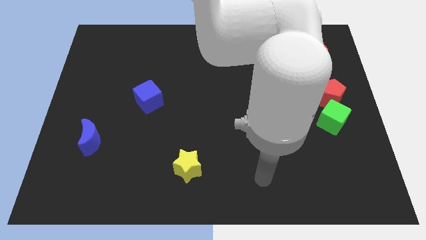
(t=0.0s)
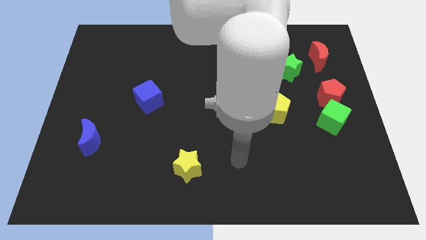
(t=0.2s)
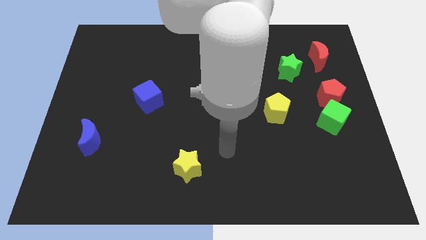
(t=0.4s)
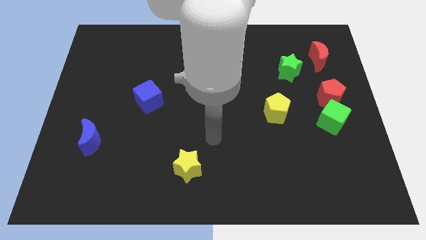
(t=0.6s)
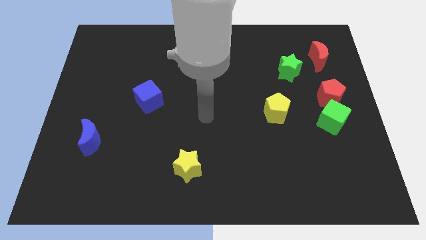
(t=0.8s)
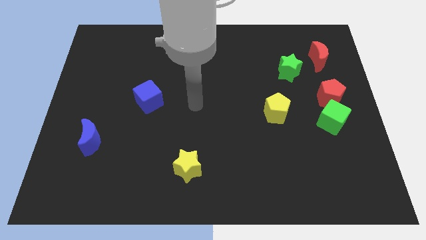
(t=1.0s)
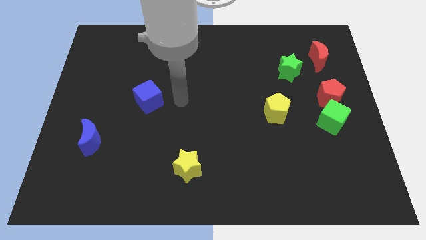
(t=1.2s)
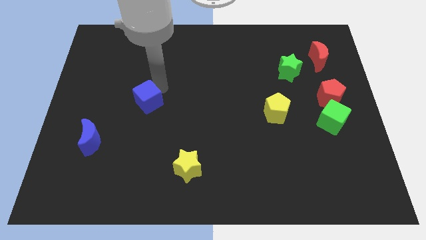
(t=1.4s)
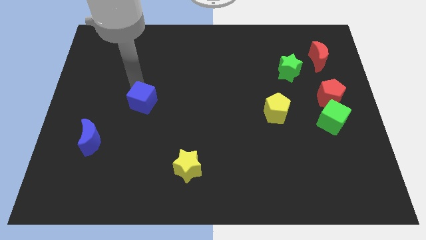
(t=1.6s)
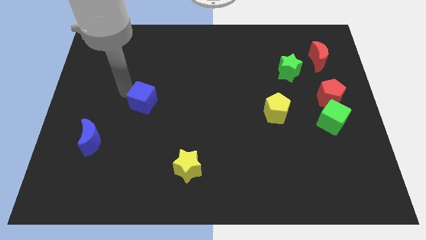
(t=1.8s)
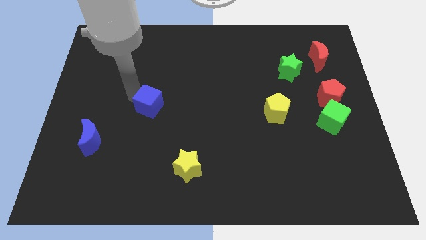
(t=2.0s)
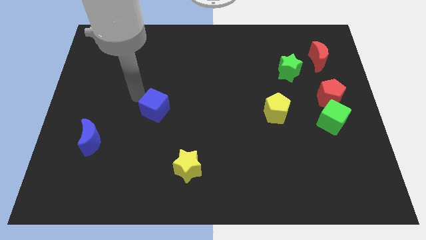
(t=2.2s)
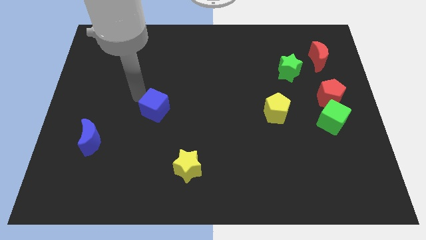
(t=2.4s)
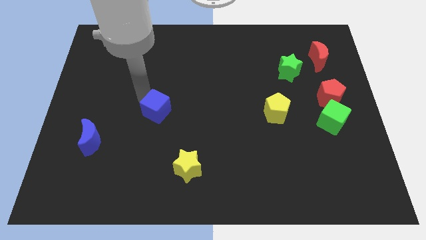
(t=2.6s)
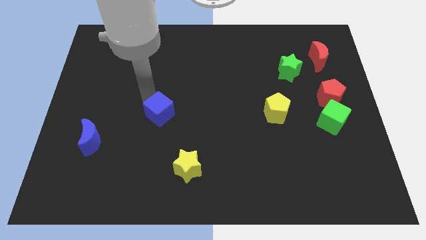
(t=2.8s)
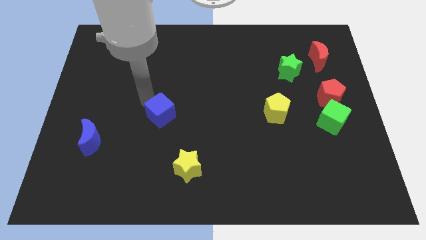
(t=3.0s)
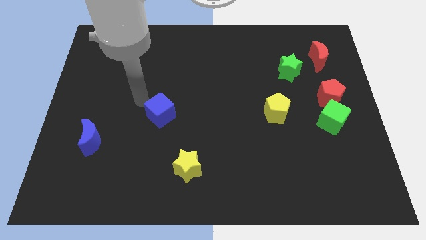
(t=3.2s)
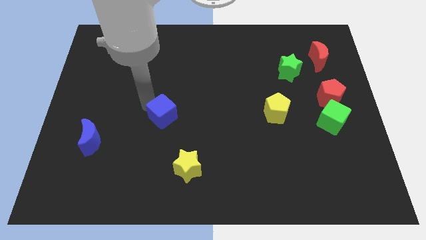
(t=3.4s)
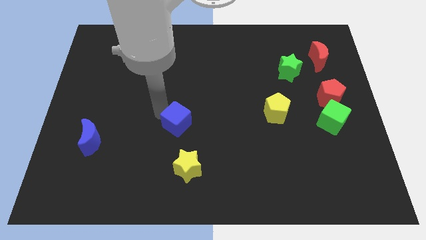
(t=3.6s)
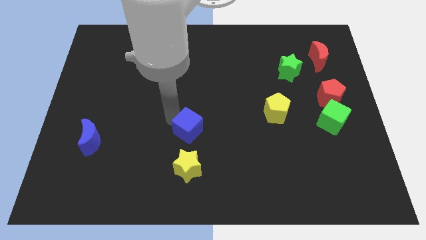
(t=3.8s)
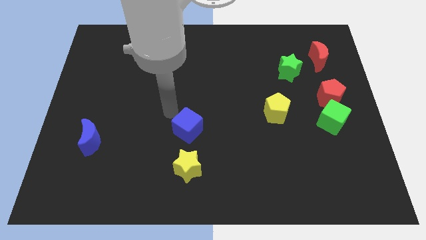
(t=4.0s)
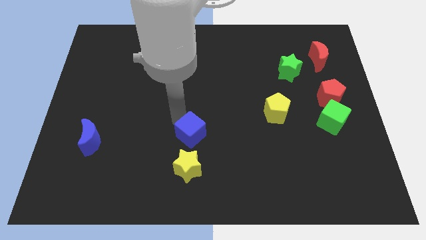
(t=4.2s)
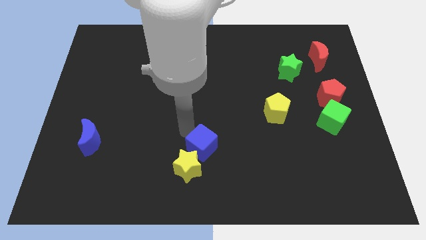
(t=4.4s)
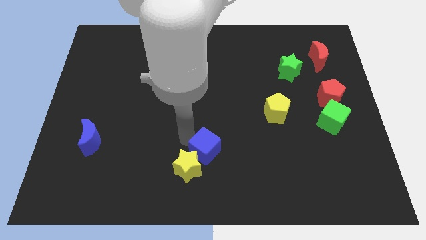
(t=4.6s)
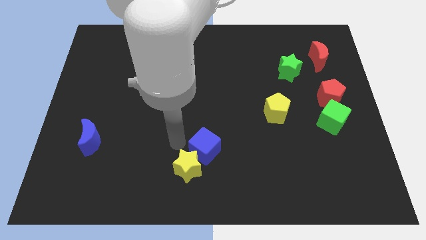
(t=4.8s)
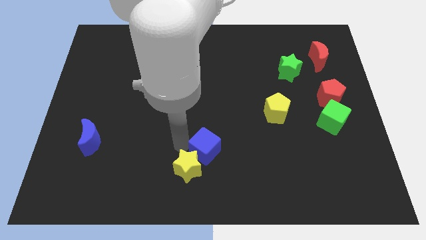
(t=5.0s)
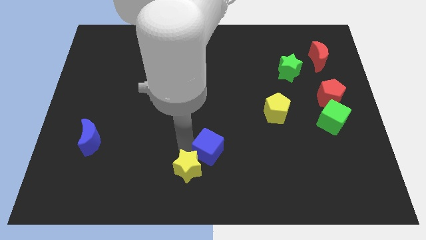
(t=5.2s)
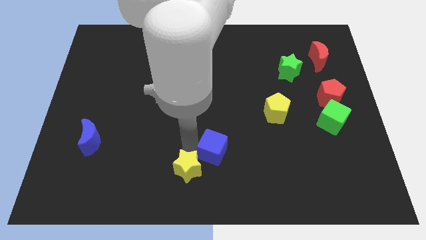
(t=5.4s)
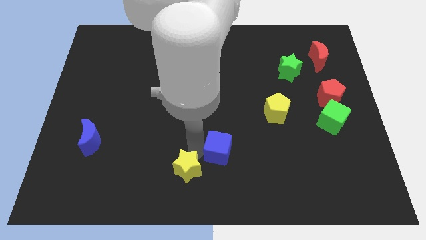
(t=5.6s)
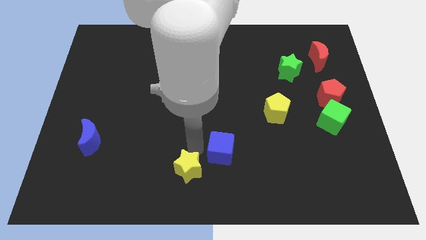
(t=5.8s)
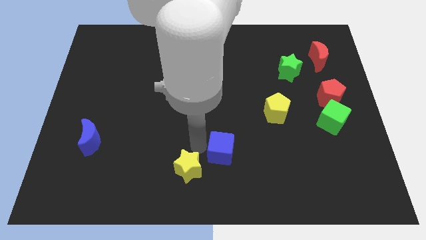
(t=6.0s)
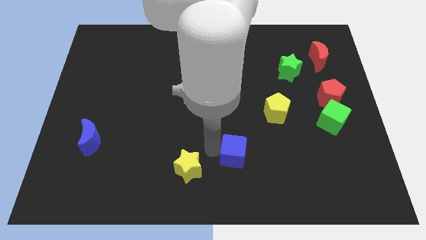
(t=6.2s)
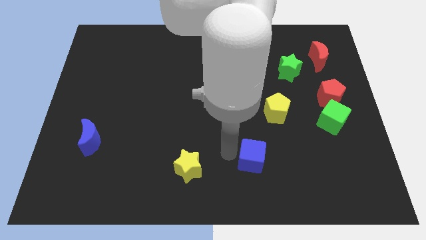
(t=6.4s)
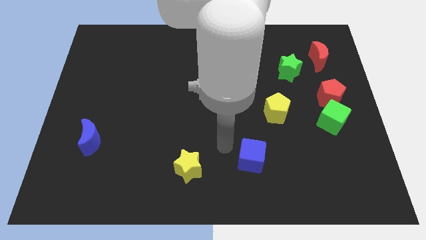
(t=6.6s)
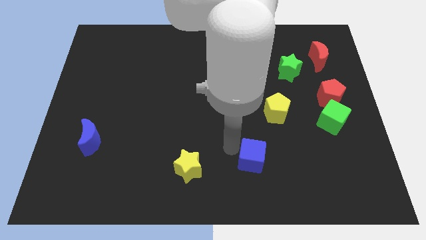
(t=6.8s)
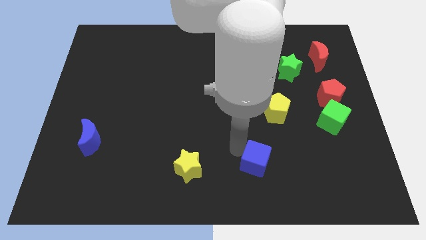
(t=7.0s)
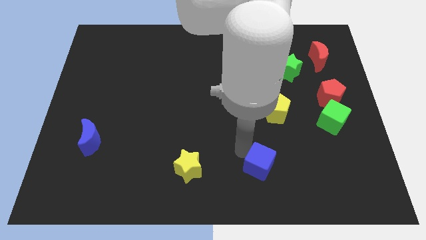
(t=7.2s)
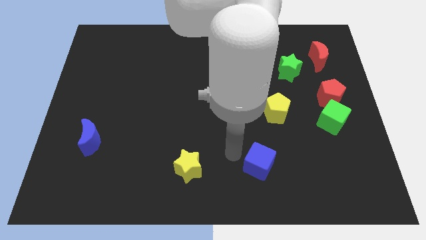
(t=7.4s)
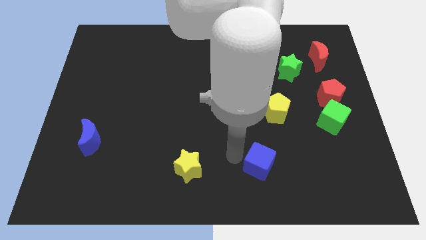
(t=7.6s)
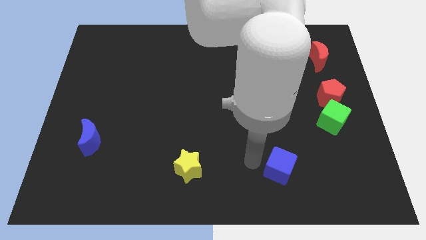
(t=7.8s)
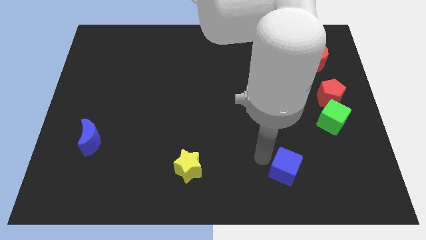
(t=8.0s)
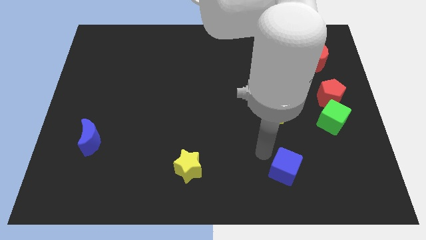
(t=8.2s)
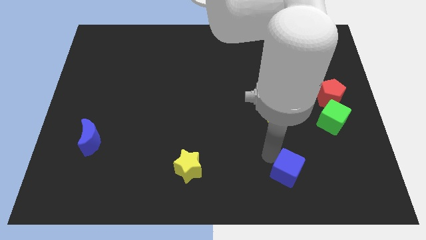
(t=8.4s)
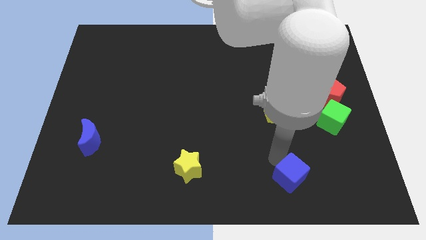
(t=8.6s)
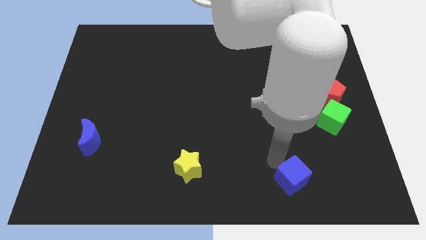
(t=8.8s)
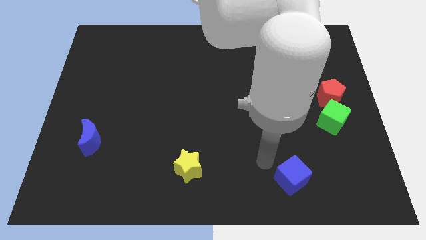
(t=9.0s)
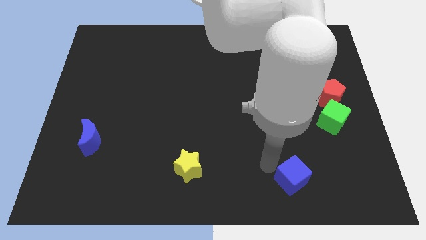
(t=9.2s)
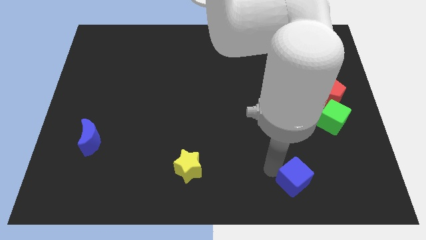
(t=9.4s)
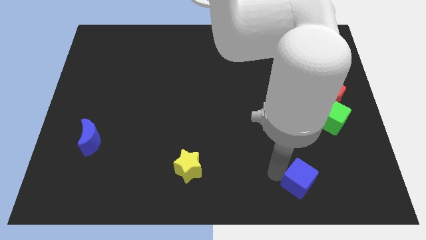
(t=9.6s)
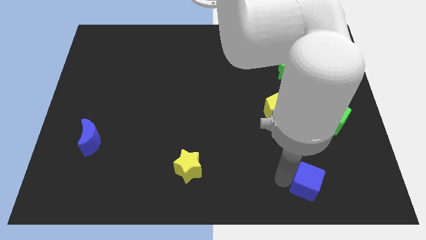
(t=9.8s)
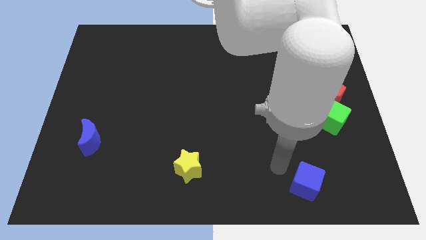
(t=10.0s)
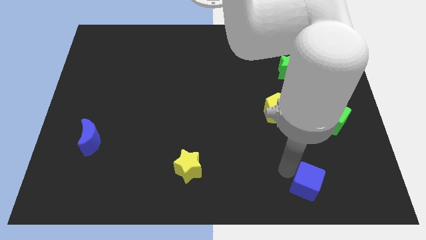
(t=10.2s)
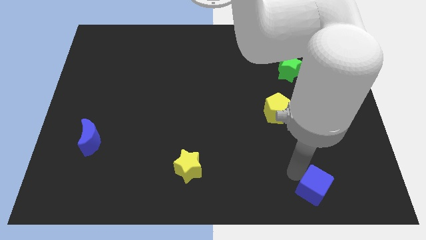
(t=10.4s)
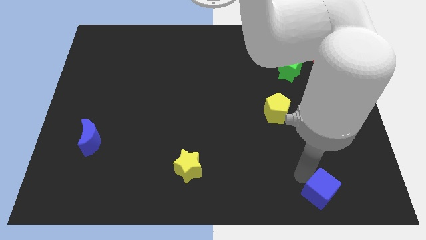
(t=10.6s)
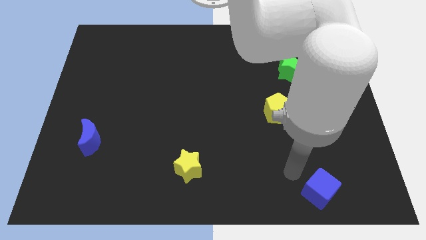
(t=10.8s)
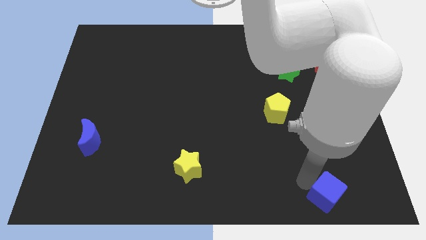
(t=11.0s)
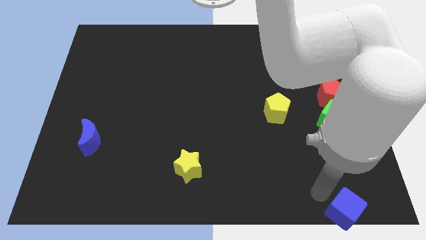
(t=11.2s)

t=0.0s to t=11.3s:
slide the blue cube to the bottom right corner

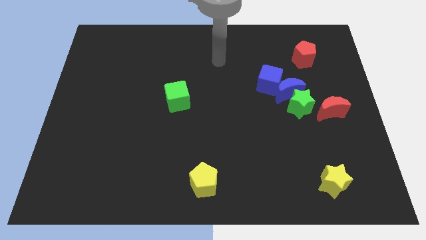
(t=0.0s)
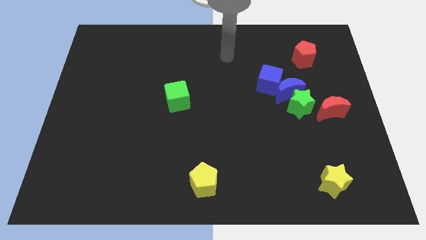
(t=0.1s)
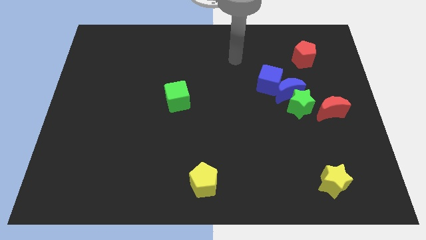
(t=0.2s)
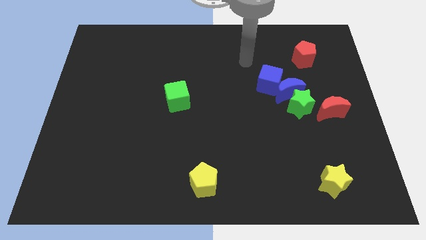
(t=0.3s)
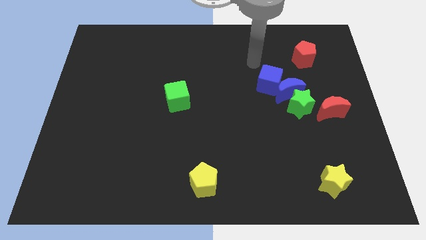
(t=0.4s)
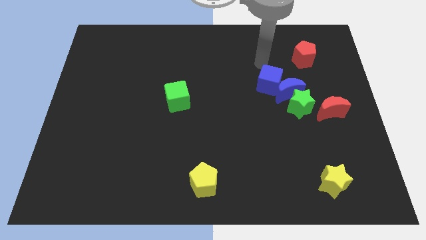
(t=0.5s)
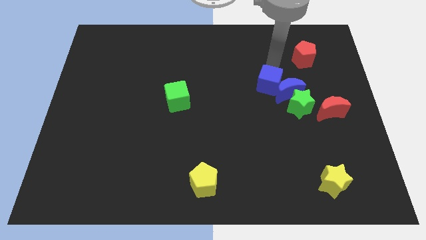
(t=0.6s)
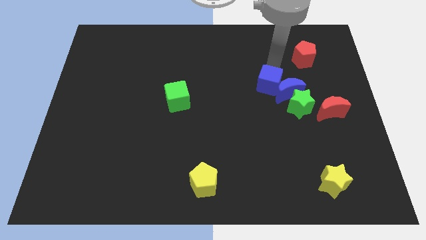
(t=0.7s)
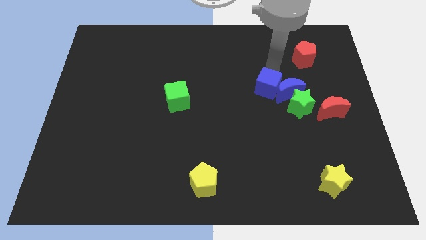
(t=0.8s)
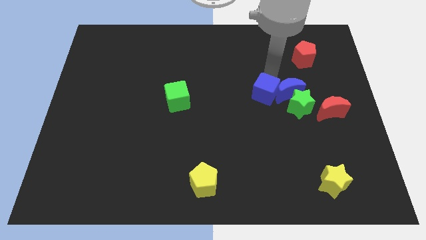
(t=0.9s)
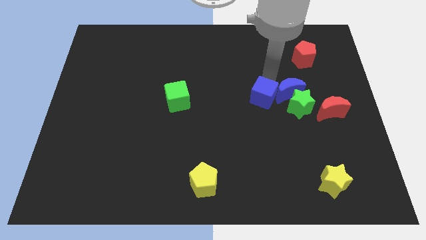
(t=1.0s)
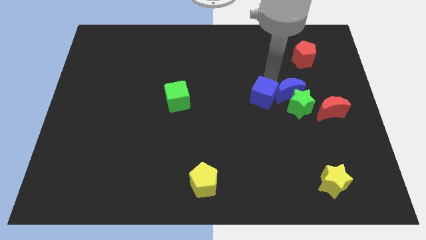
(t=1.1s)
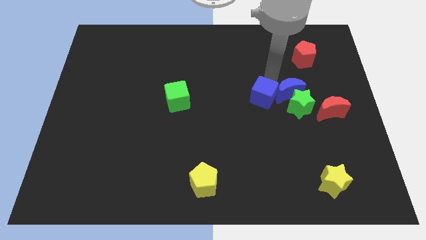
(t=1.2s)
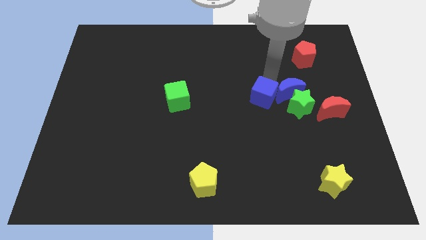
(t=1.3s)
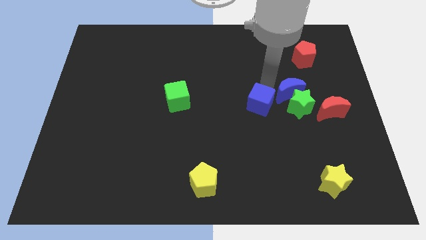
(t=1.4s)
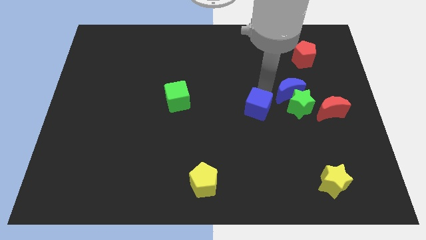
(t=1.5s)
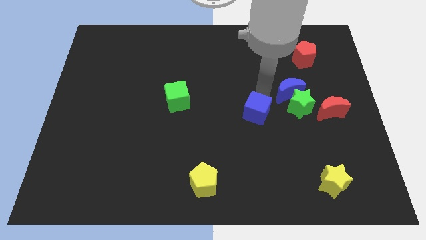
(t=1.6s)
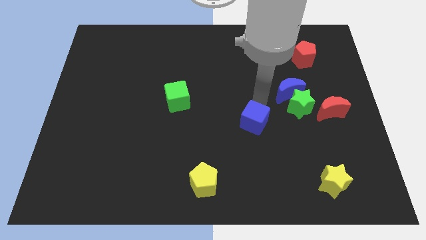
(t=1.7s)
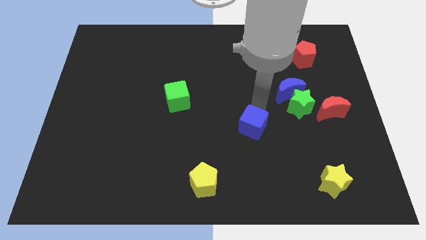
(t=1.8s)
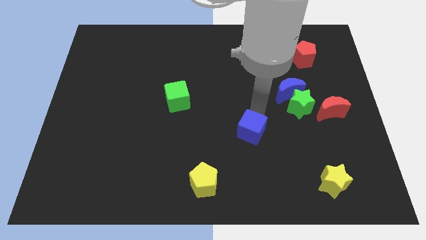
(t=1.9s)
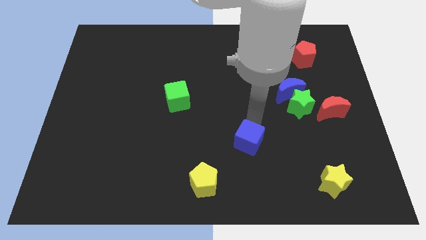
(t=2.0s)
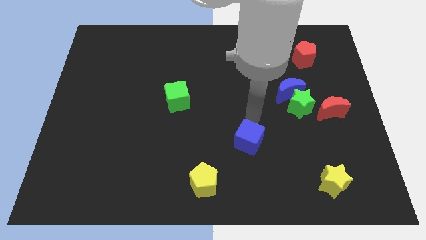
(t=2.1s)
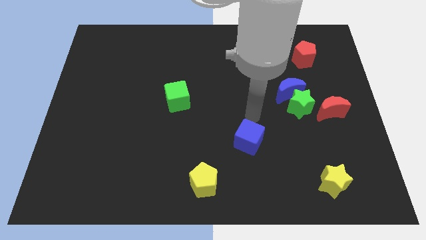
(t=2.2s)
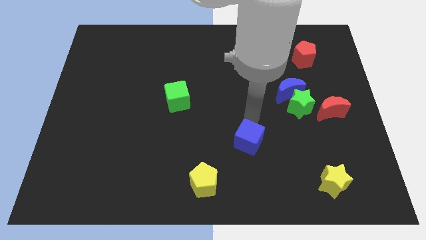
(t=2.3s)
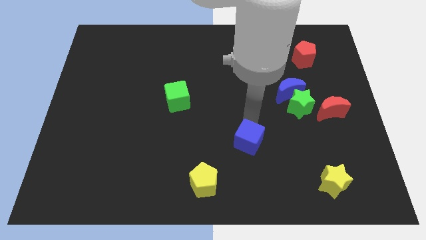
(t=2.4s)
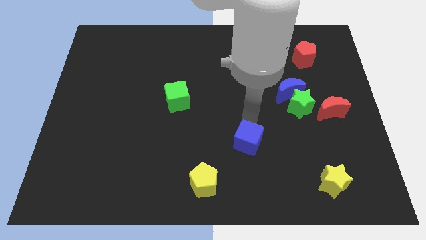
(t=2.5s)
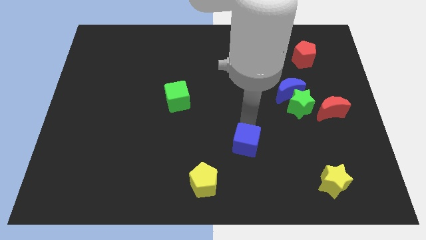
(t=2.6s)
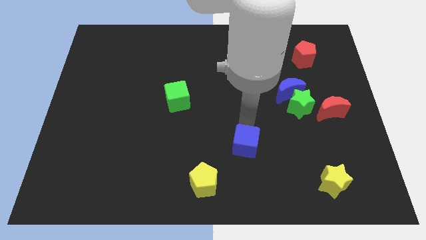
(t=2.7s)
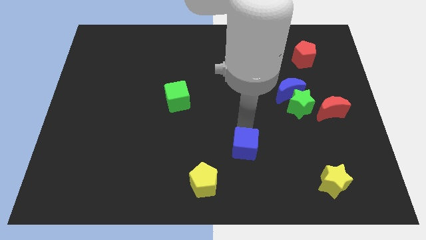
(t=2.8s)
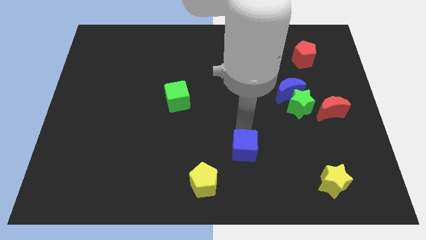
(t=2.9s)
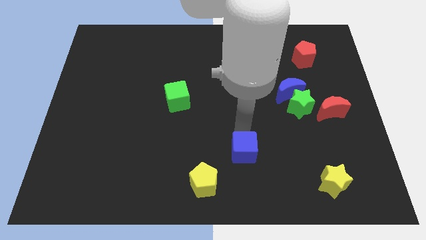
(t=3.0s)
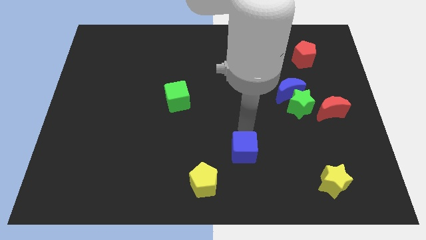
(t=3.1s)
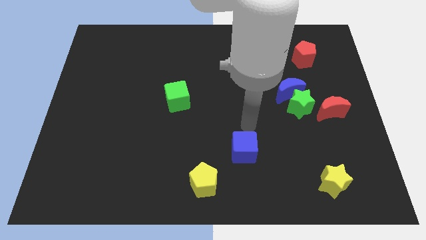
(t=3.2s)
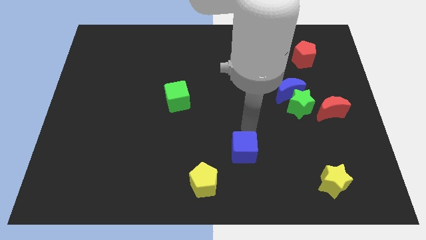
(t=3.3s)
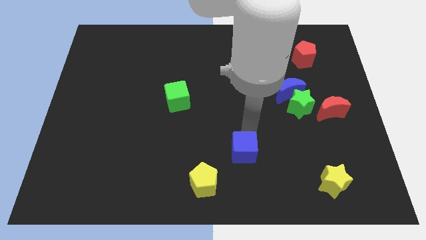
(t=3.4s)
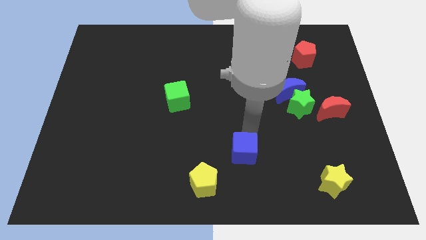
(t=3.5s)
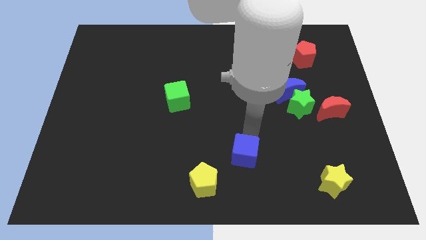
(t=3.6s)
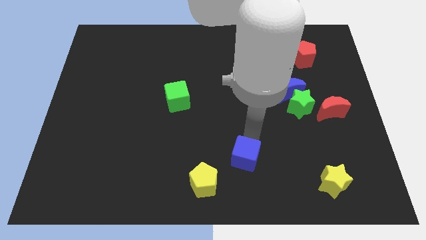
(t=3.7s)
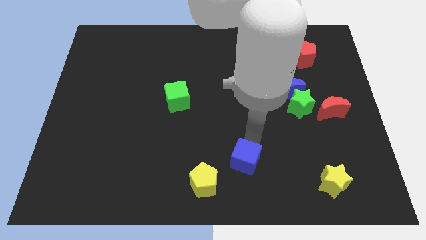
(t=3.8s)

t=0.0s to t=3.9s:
move the blue cube to the bottom
